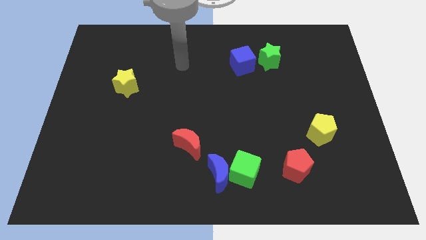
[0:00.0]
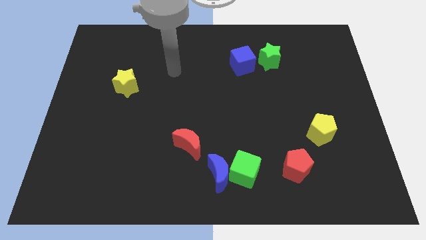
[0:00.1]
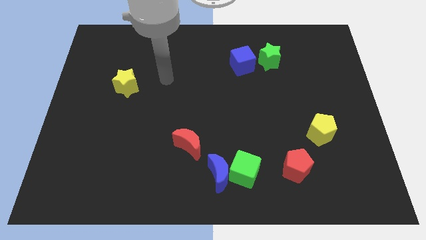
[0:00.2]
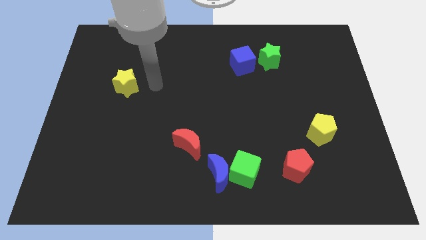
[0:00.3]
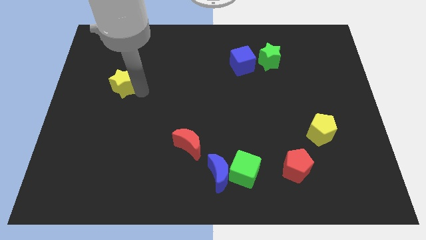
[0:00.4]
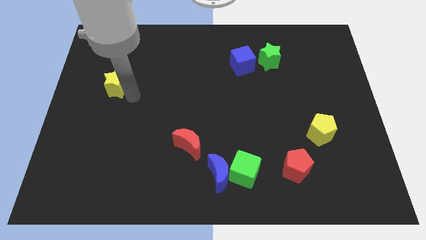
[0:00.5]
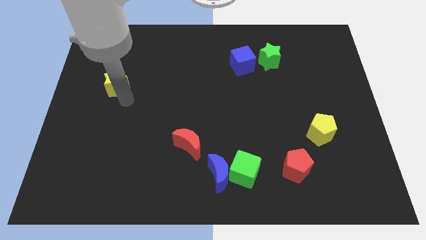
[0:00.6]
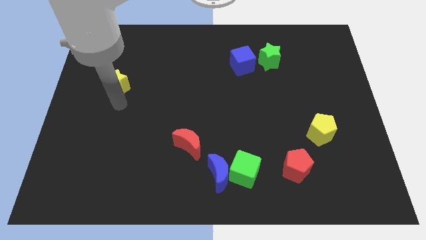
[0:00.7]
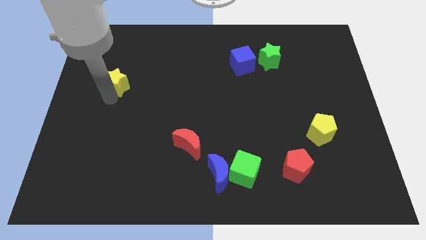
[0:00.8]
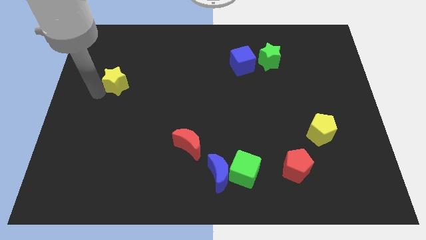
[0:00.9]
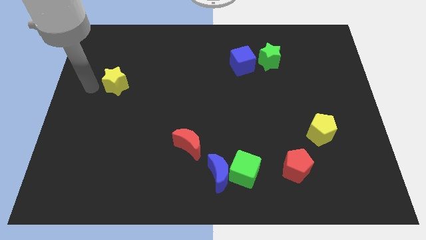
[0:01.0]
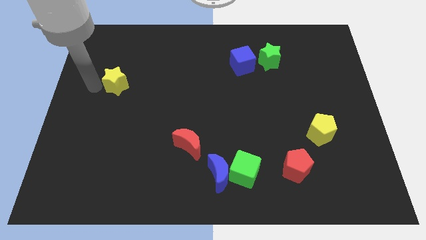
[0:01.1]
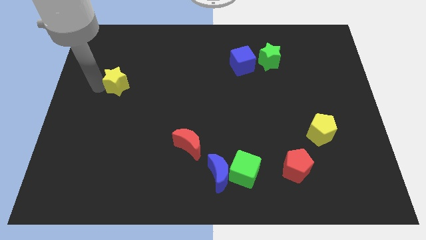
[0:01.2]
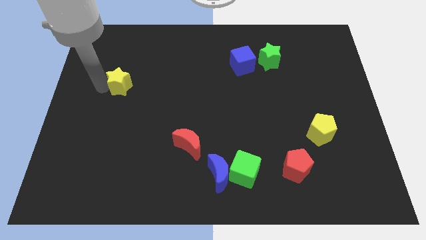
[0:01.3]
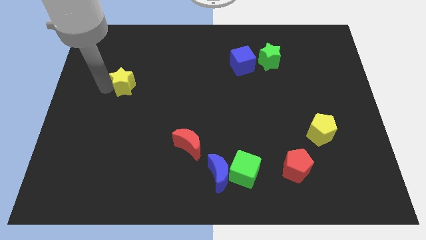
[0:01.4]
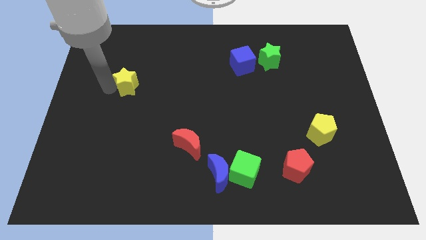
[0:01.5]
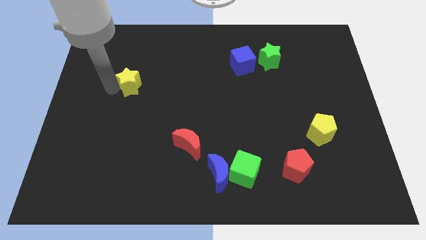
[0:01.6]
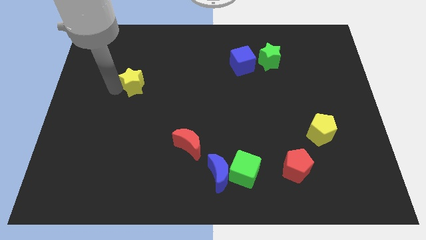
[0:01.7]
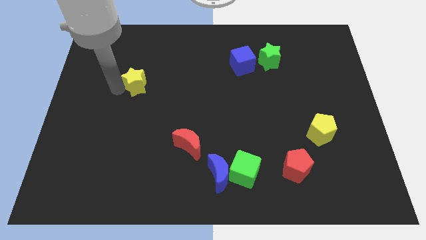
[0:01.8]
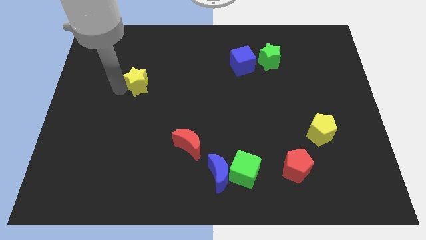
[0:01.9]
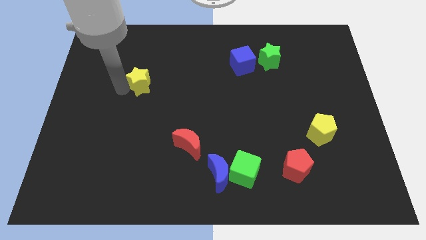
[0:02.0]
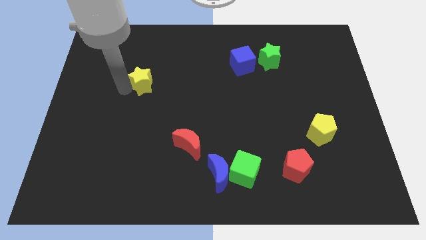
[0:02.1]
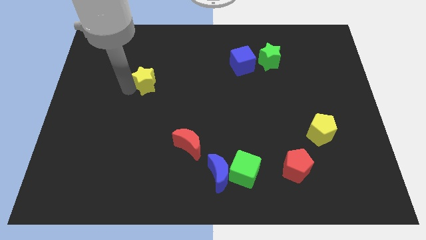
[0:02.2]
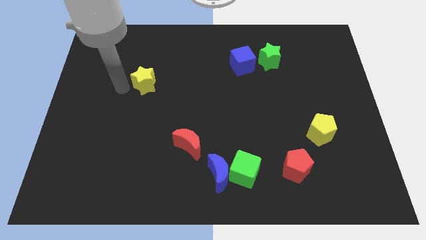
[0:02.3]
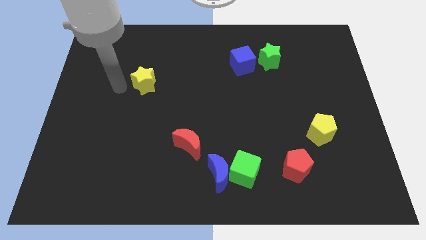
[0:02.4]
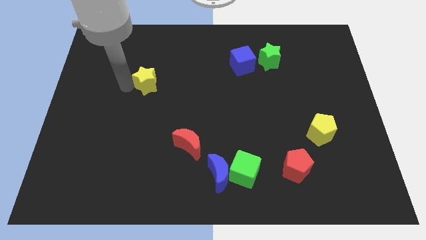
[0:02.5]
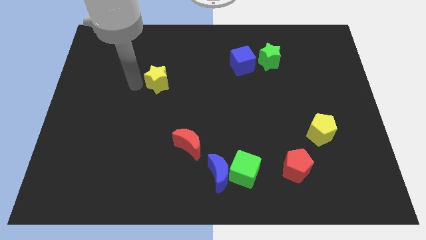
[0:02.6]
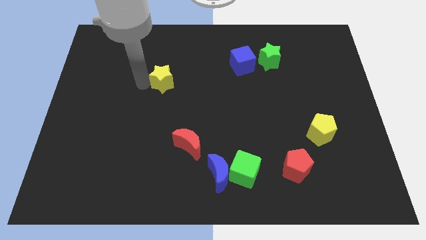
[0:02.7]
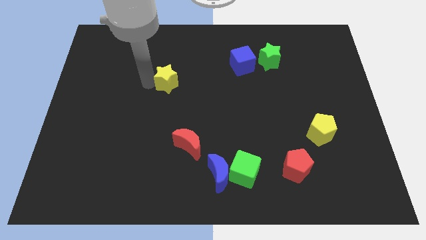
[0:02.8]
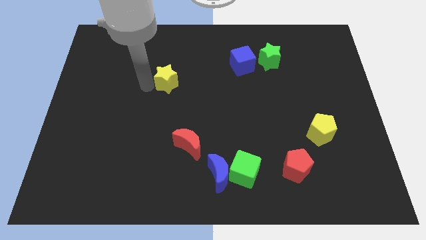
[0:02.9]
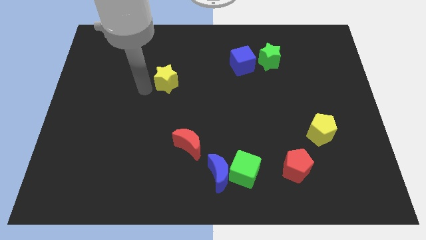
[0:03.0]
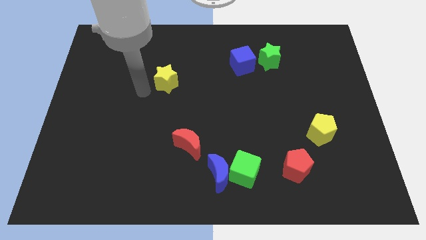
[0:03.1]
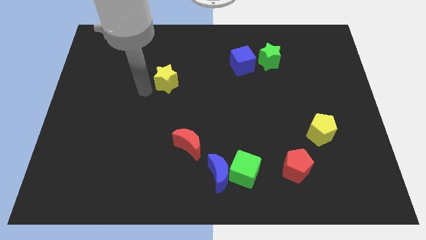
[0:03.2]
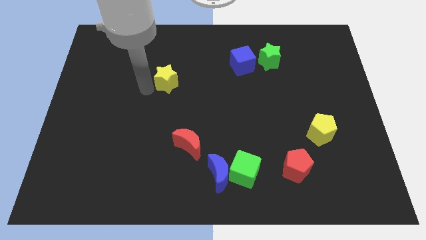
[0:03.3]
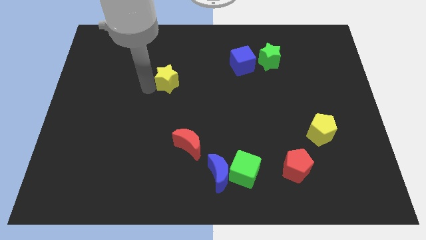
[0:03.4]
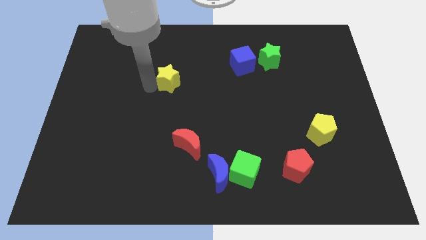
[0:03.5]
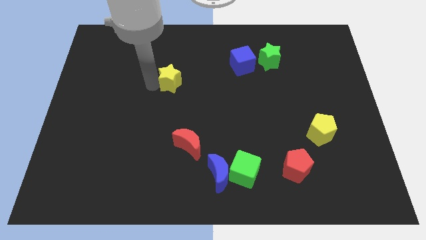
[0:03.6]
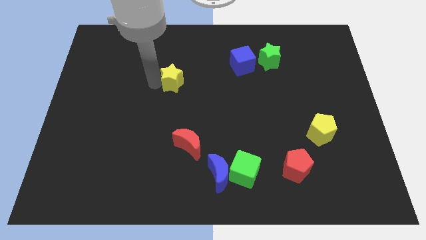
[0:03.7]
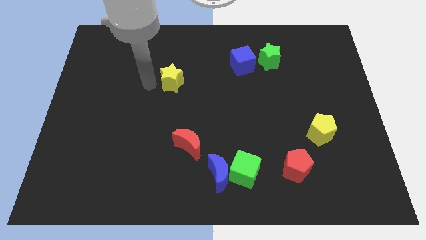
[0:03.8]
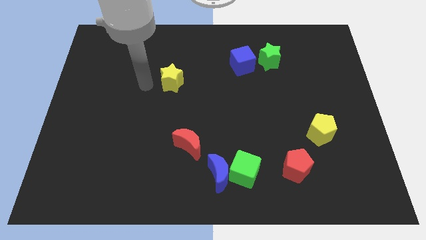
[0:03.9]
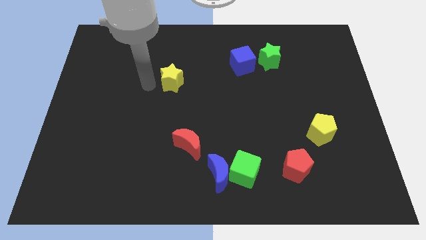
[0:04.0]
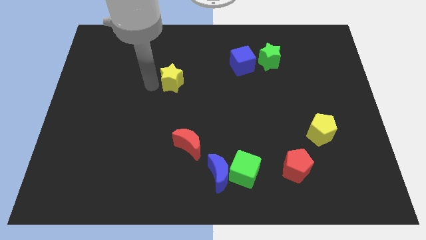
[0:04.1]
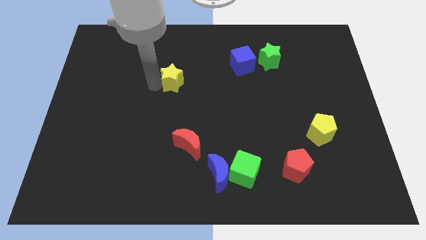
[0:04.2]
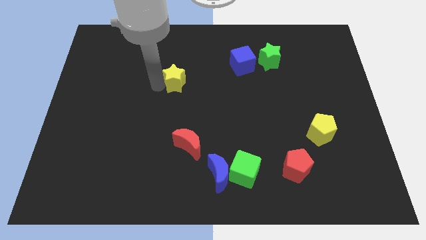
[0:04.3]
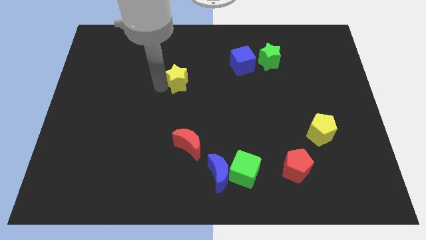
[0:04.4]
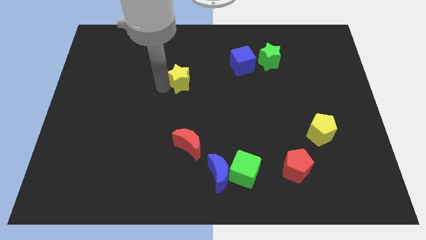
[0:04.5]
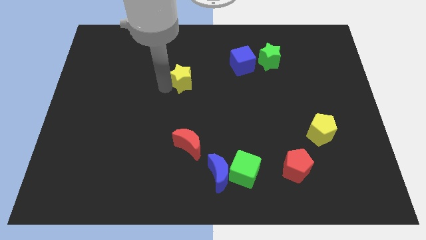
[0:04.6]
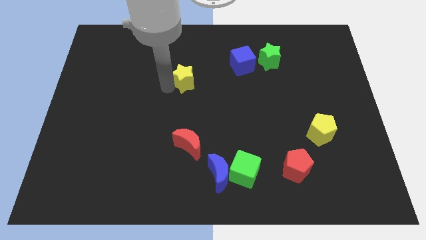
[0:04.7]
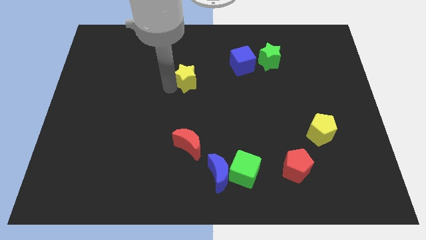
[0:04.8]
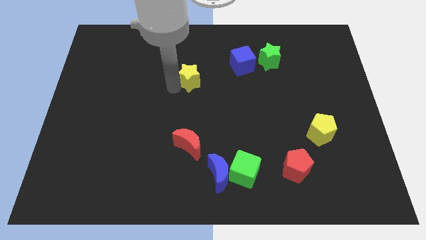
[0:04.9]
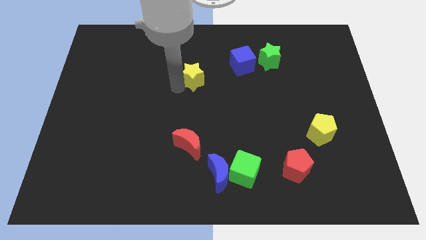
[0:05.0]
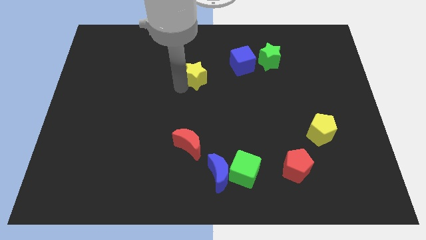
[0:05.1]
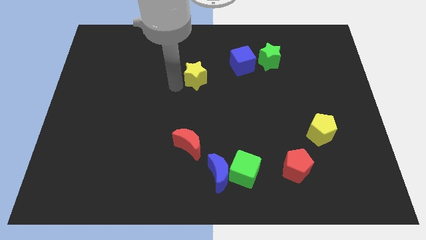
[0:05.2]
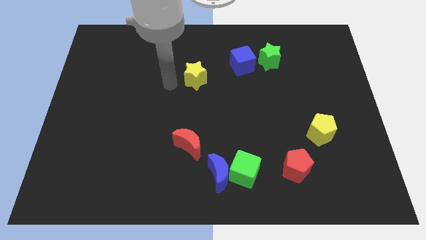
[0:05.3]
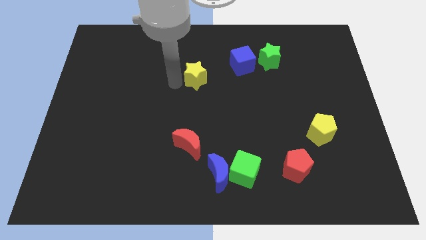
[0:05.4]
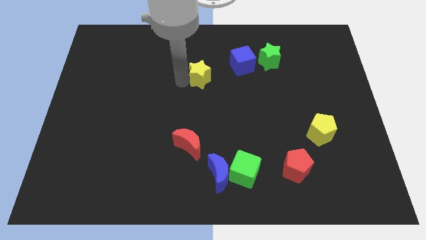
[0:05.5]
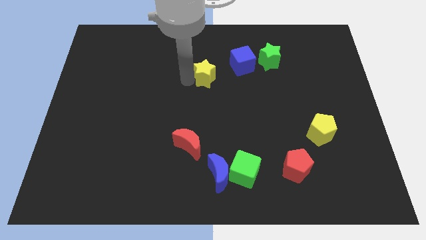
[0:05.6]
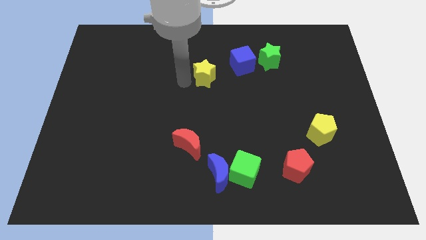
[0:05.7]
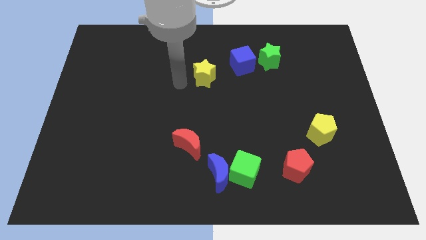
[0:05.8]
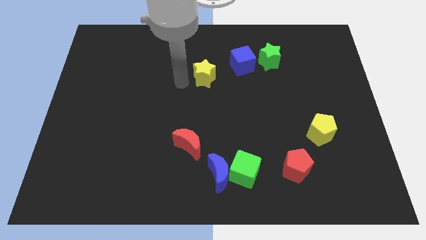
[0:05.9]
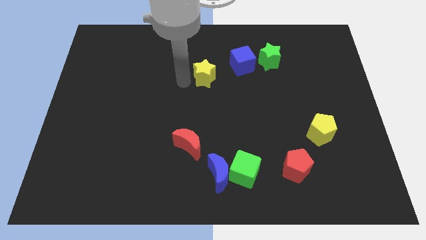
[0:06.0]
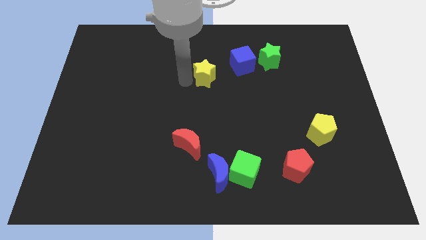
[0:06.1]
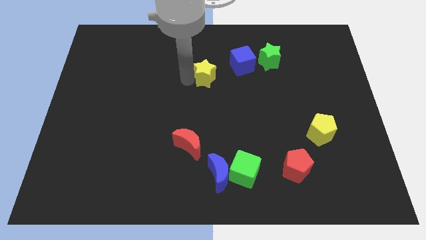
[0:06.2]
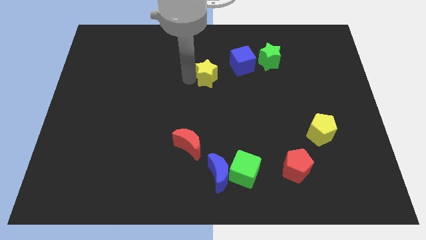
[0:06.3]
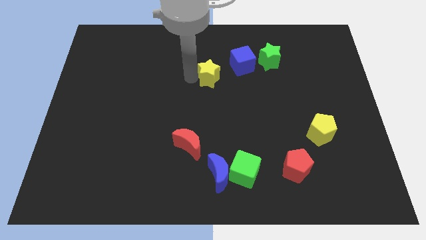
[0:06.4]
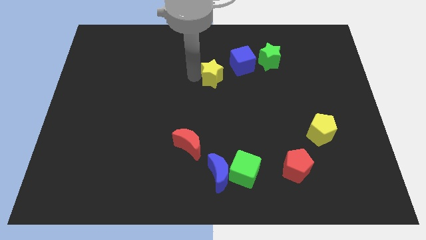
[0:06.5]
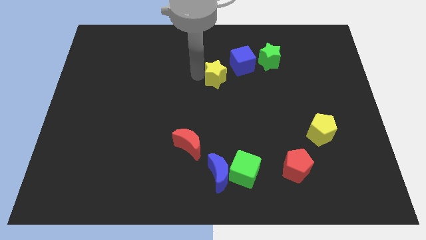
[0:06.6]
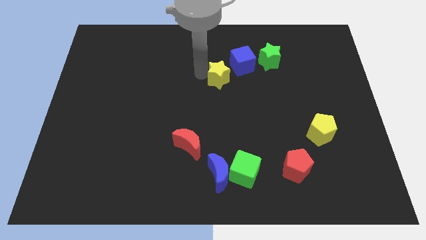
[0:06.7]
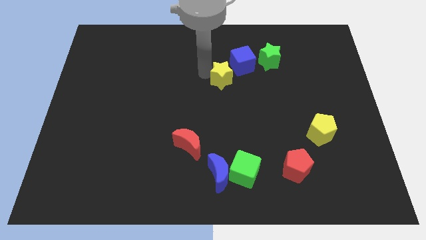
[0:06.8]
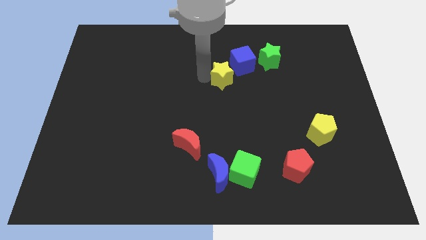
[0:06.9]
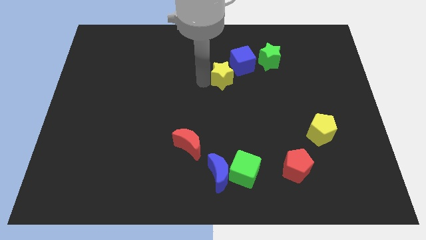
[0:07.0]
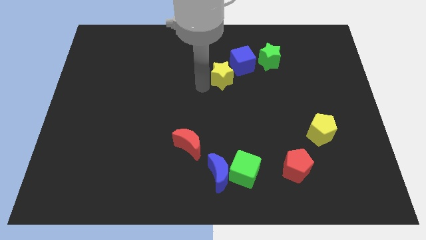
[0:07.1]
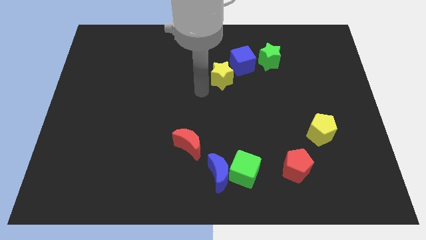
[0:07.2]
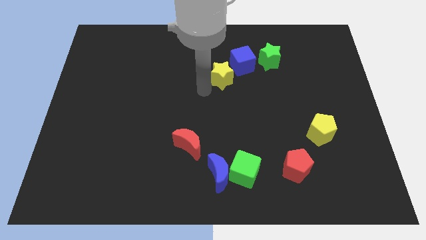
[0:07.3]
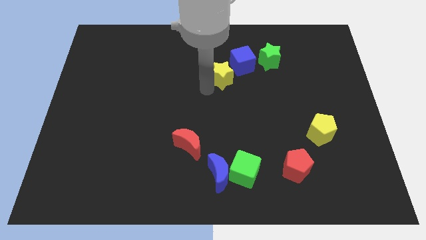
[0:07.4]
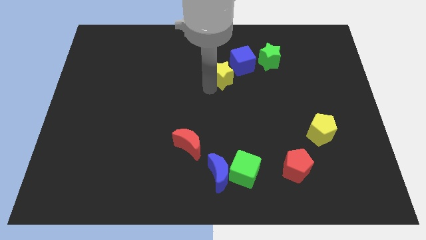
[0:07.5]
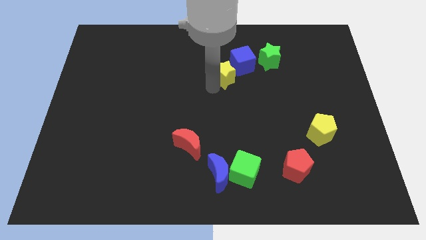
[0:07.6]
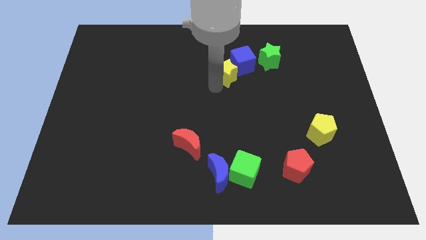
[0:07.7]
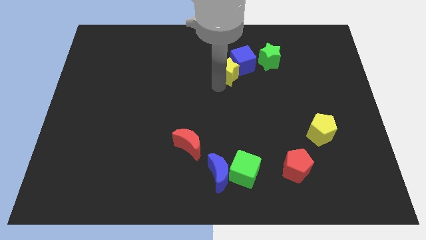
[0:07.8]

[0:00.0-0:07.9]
push the yellow star towards the blue cube
